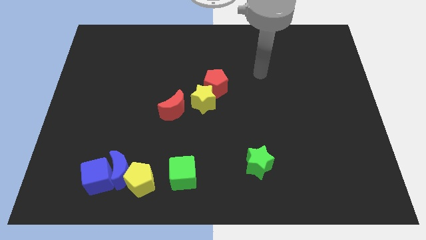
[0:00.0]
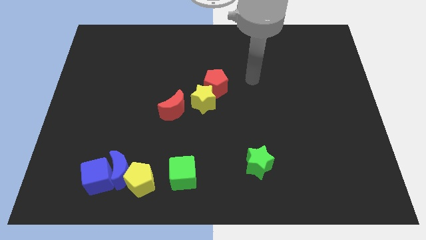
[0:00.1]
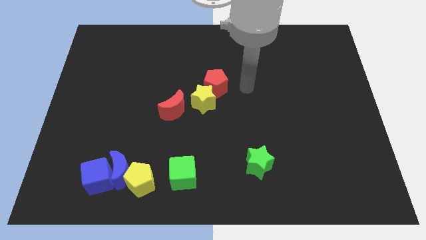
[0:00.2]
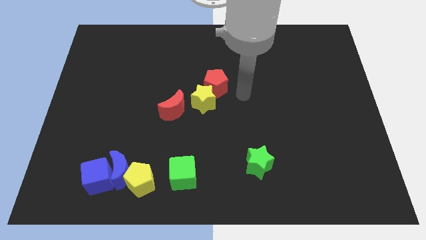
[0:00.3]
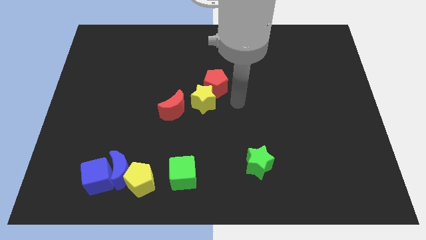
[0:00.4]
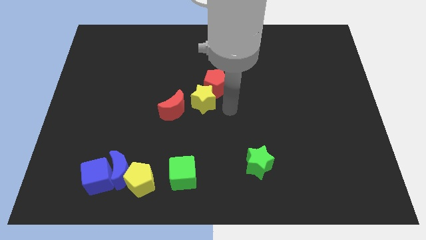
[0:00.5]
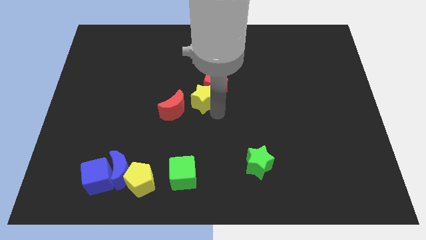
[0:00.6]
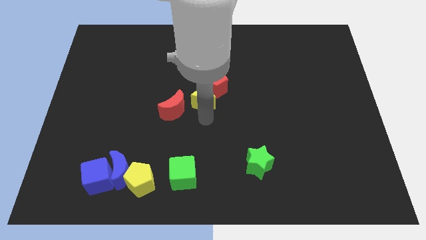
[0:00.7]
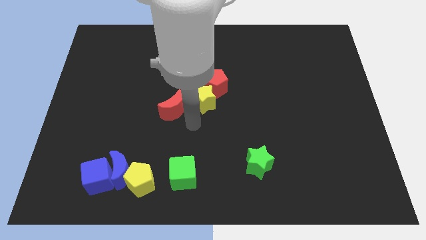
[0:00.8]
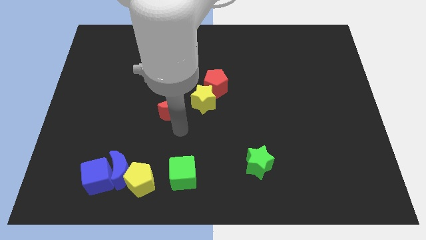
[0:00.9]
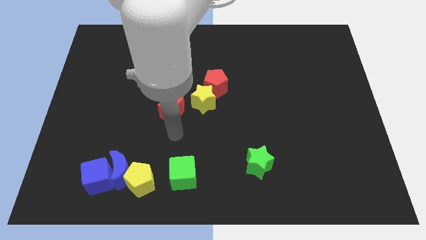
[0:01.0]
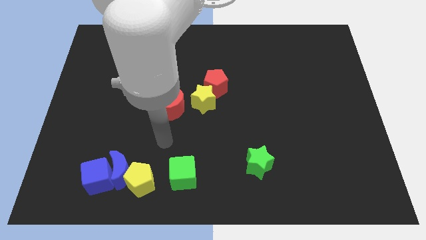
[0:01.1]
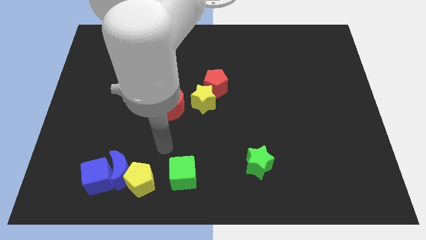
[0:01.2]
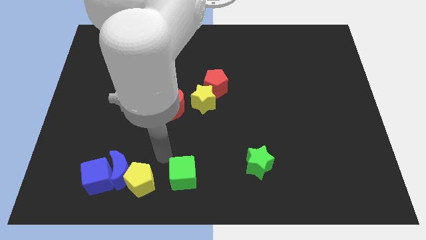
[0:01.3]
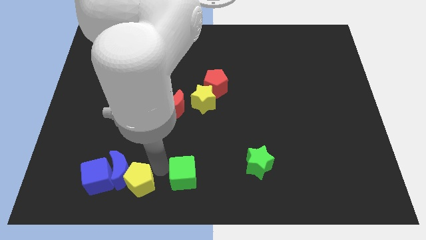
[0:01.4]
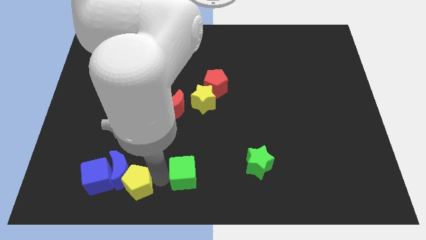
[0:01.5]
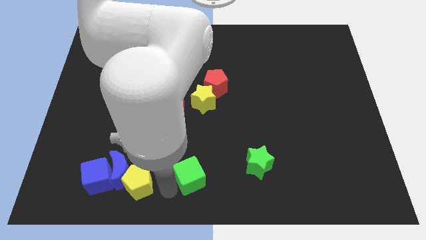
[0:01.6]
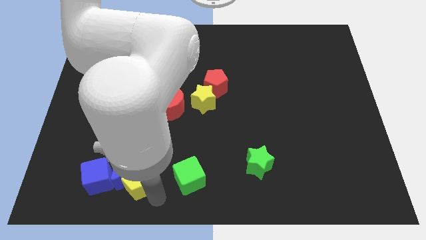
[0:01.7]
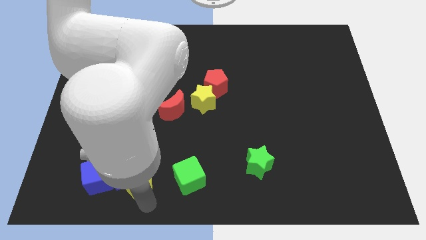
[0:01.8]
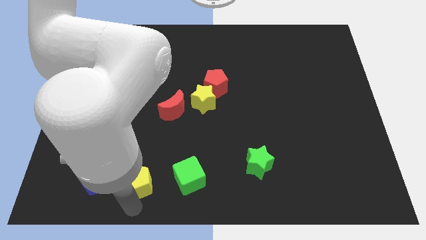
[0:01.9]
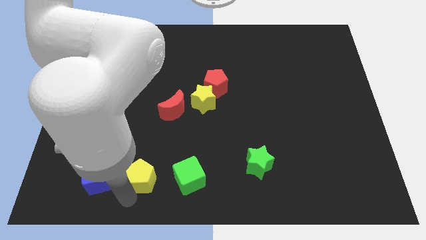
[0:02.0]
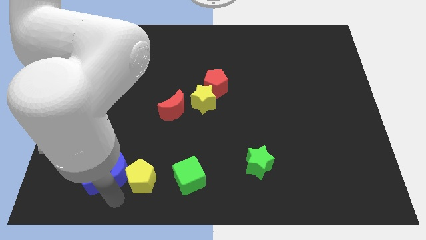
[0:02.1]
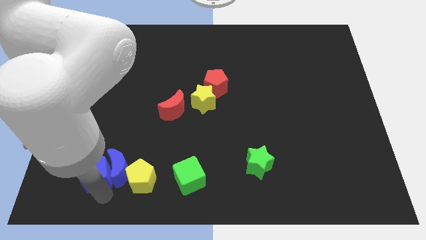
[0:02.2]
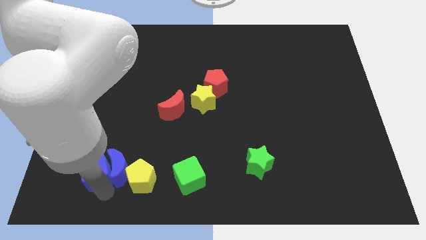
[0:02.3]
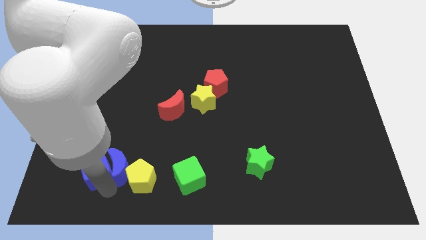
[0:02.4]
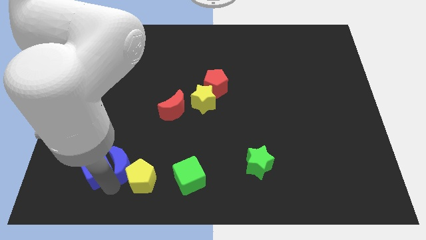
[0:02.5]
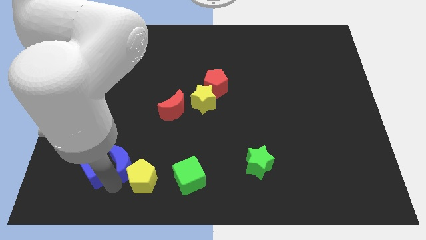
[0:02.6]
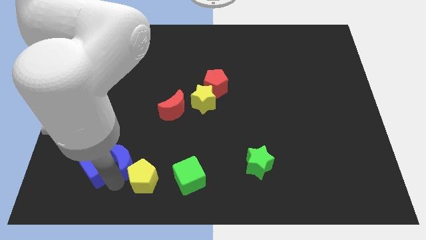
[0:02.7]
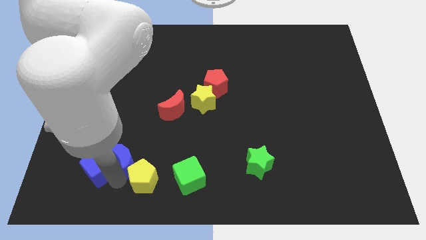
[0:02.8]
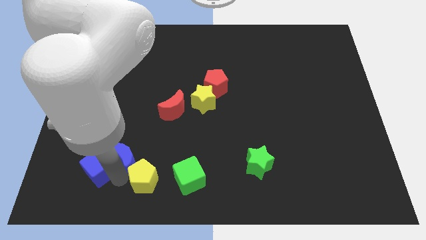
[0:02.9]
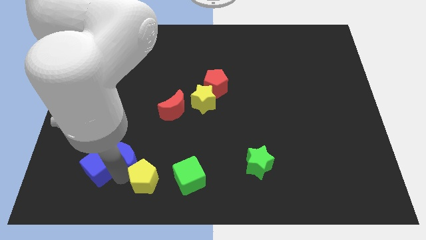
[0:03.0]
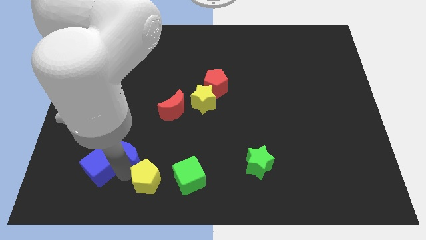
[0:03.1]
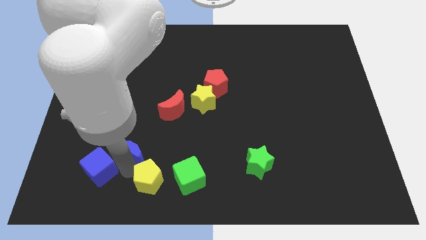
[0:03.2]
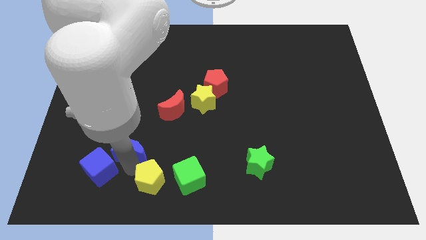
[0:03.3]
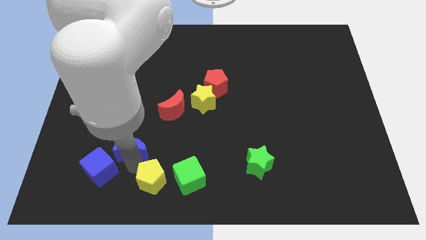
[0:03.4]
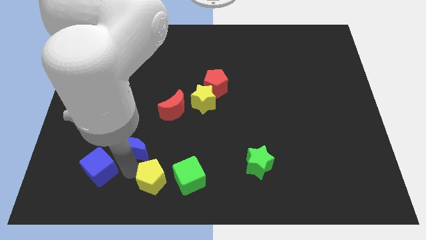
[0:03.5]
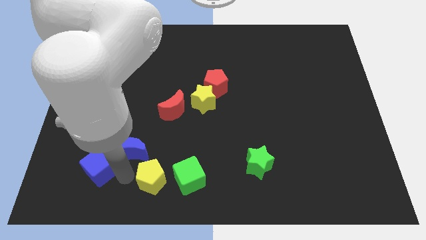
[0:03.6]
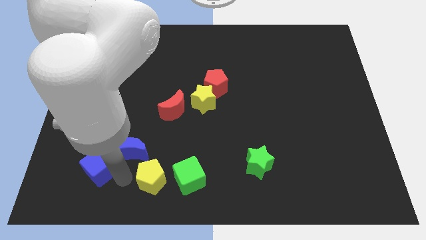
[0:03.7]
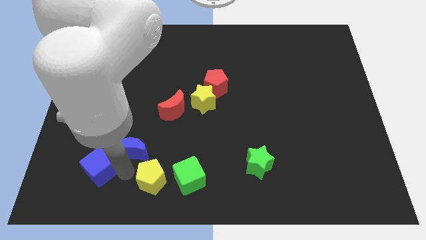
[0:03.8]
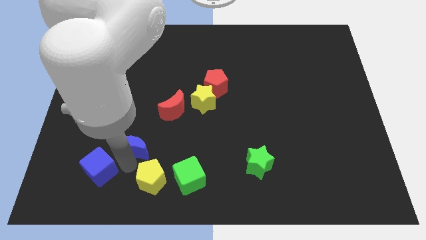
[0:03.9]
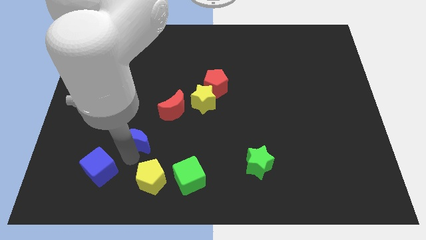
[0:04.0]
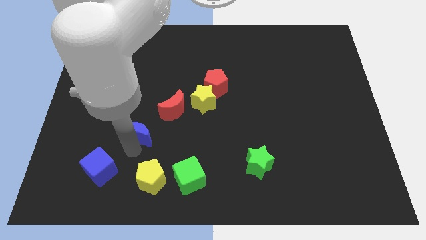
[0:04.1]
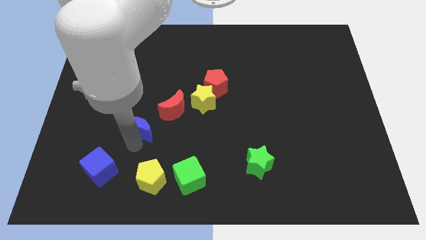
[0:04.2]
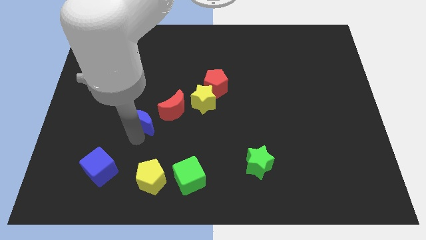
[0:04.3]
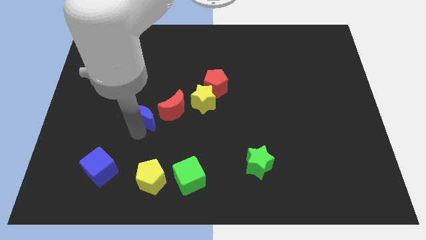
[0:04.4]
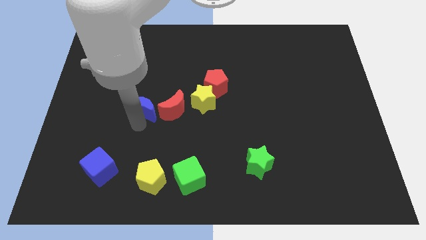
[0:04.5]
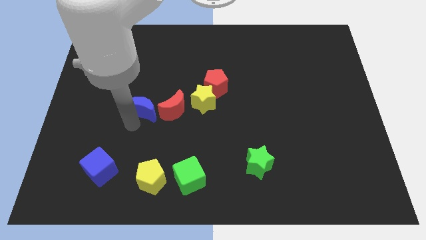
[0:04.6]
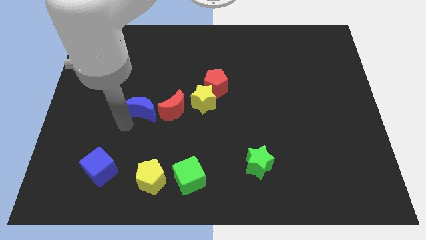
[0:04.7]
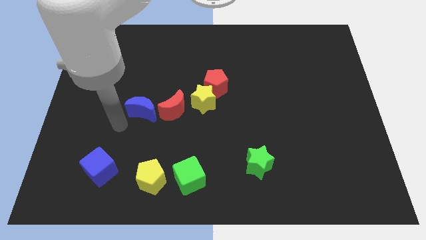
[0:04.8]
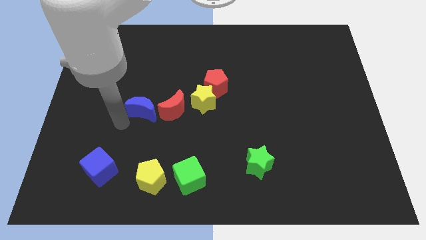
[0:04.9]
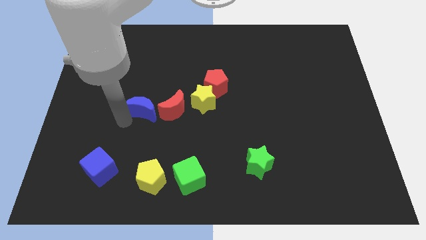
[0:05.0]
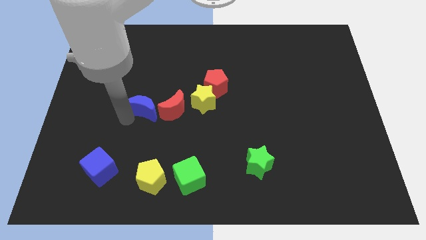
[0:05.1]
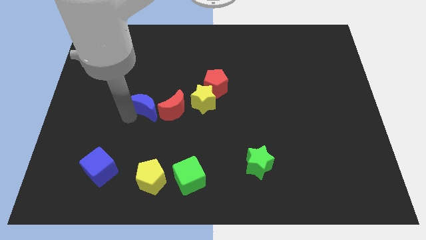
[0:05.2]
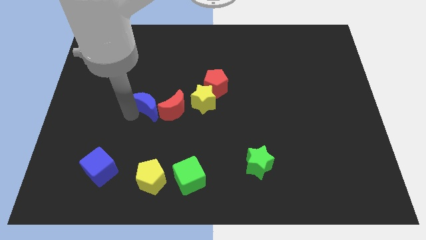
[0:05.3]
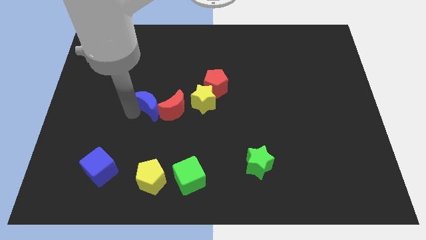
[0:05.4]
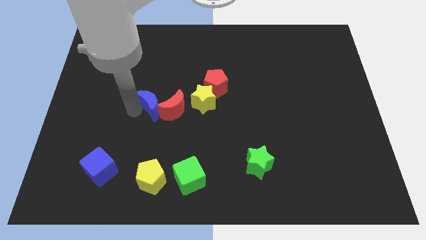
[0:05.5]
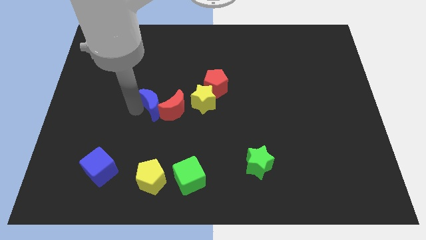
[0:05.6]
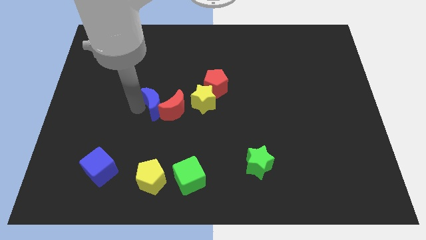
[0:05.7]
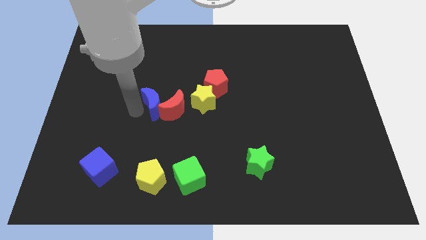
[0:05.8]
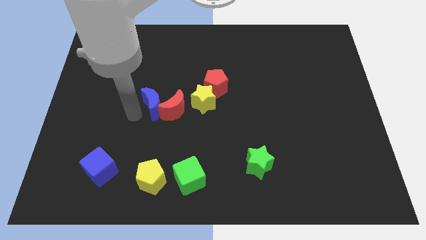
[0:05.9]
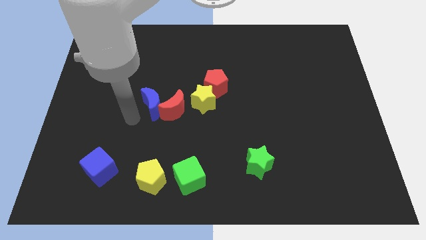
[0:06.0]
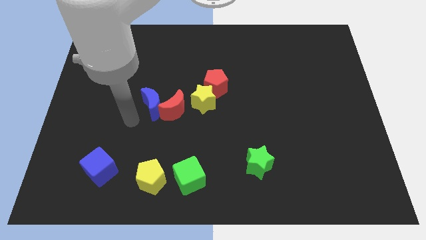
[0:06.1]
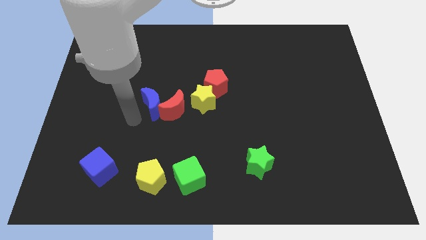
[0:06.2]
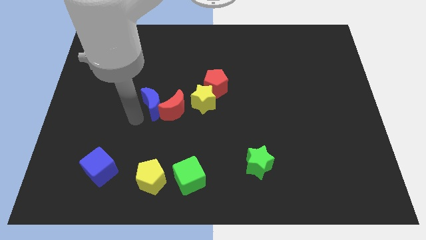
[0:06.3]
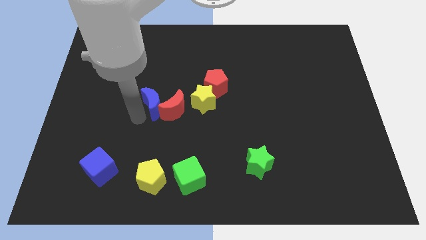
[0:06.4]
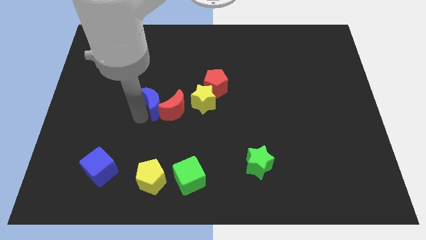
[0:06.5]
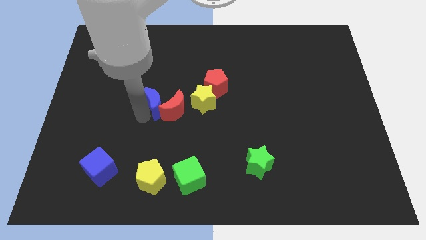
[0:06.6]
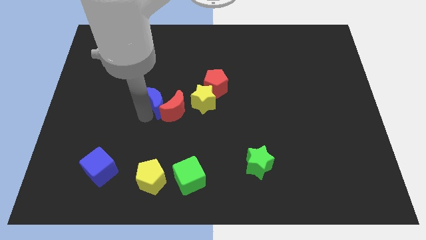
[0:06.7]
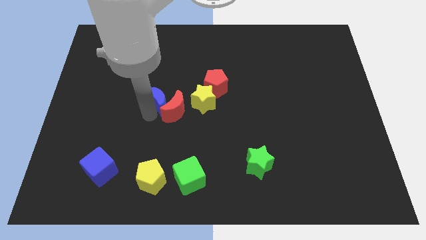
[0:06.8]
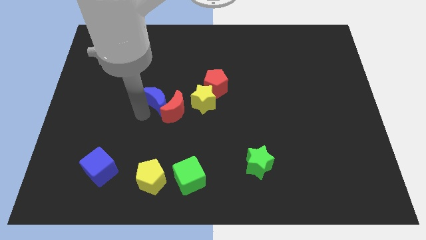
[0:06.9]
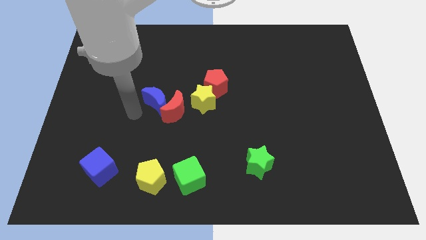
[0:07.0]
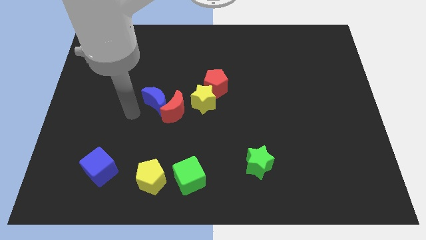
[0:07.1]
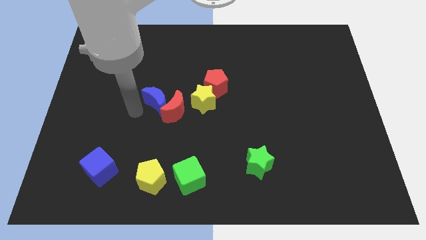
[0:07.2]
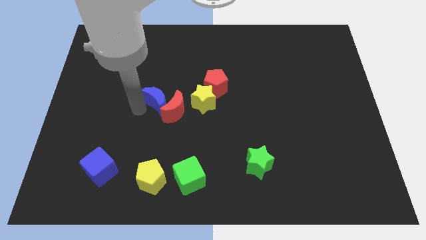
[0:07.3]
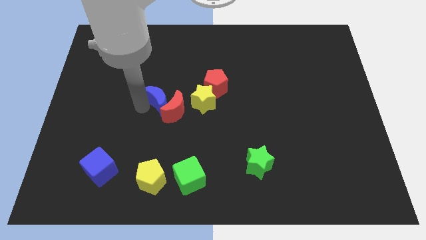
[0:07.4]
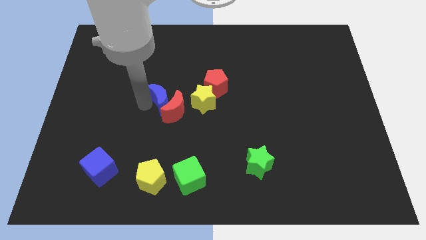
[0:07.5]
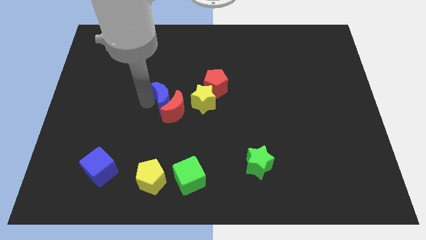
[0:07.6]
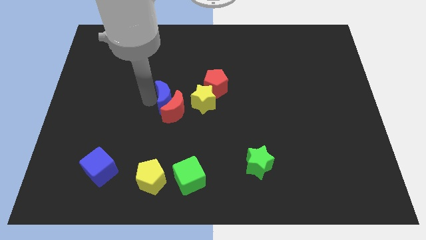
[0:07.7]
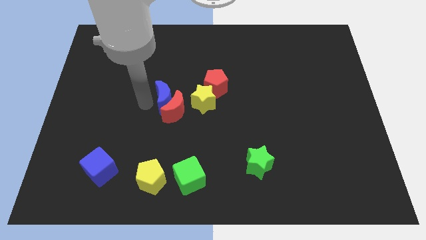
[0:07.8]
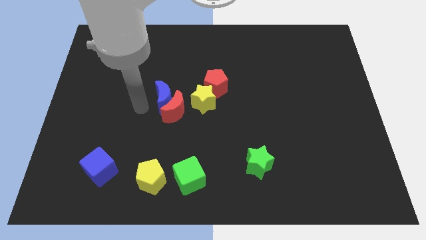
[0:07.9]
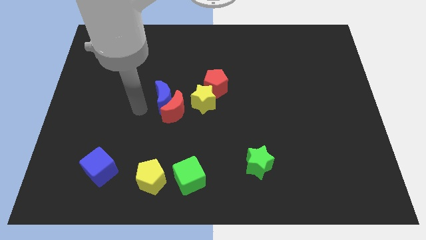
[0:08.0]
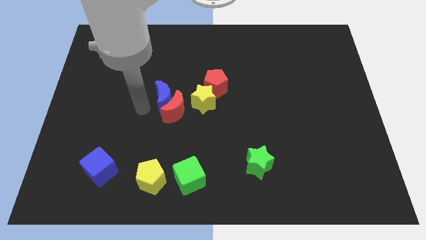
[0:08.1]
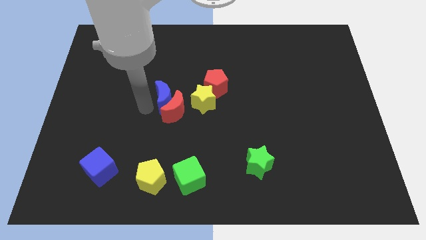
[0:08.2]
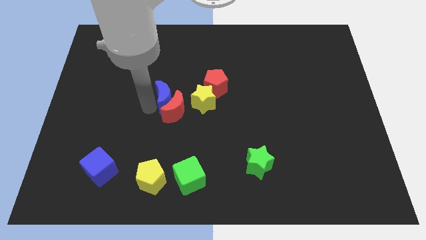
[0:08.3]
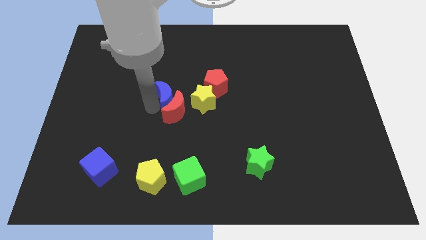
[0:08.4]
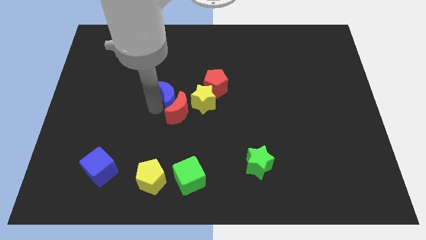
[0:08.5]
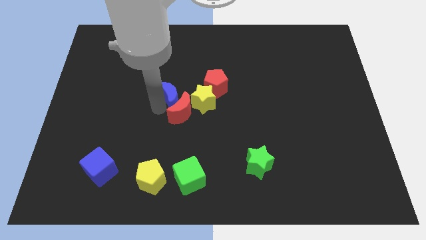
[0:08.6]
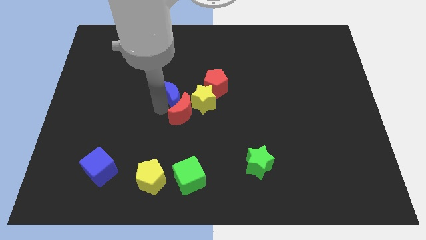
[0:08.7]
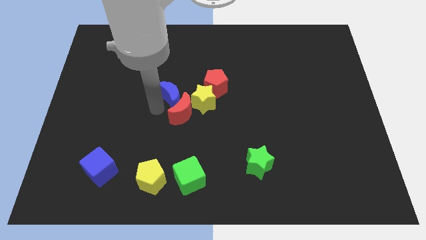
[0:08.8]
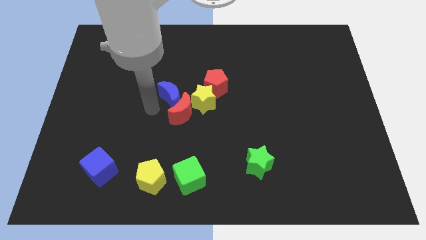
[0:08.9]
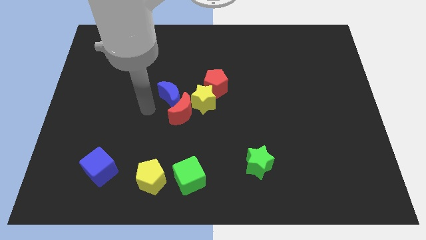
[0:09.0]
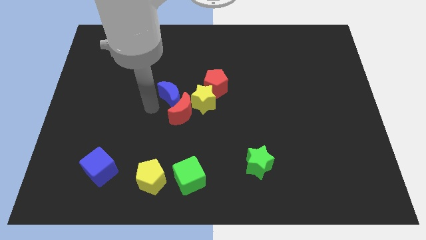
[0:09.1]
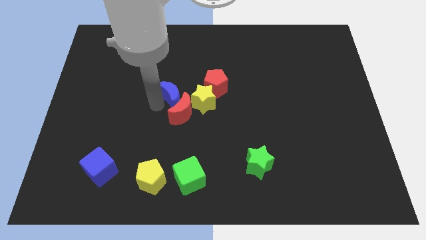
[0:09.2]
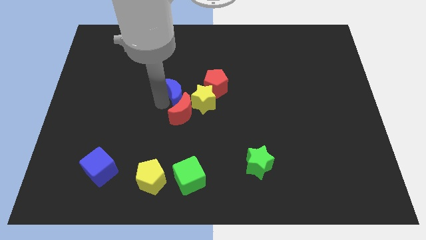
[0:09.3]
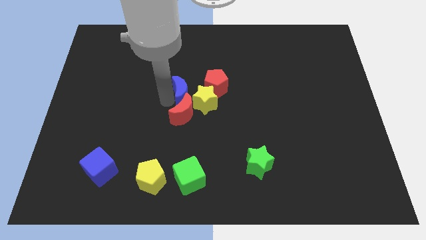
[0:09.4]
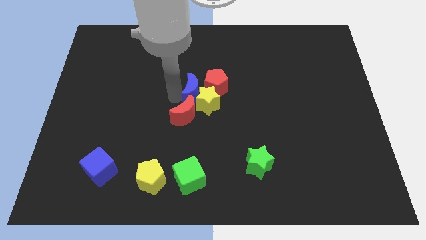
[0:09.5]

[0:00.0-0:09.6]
move the blue moon next to the red pentagon
